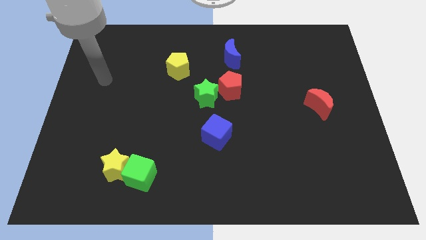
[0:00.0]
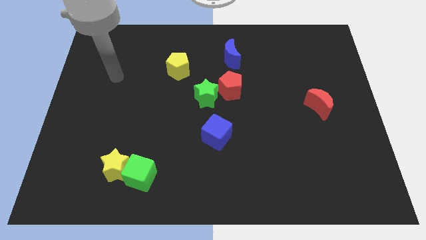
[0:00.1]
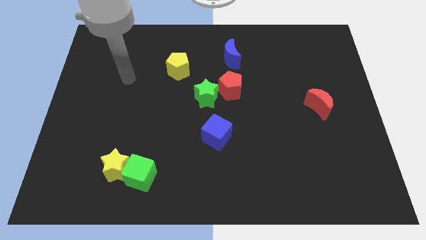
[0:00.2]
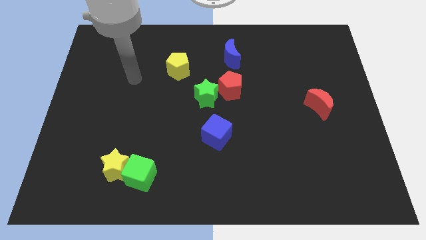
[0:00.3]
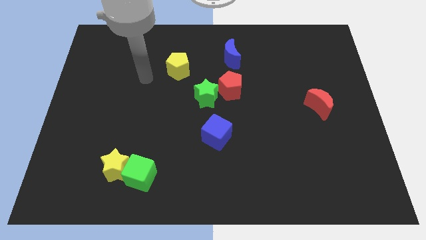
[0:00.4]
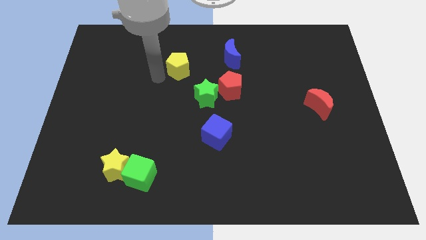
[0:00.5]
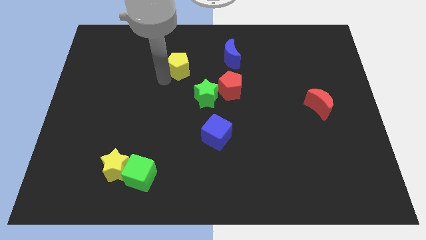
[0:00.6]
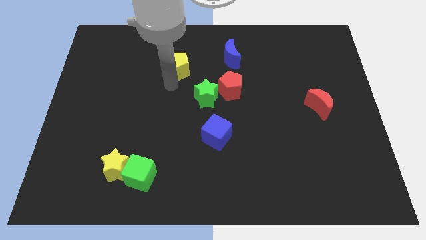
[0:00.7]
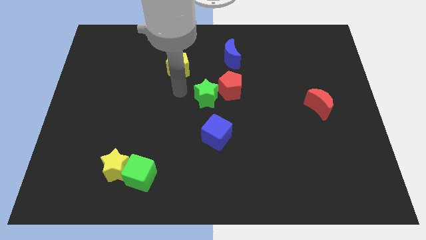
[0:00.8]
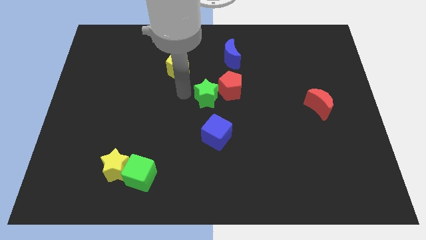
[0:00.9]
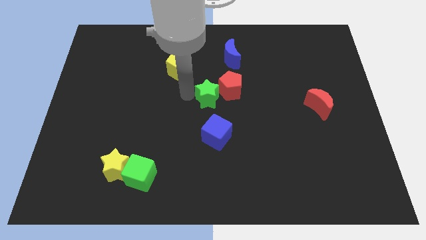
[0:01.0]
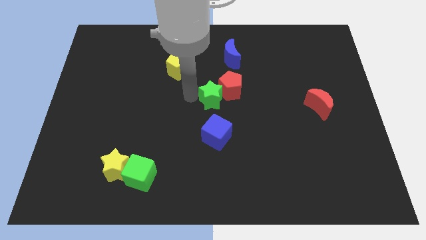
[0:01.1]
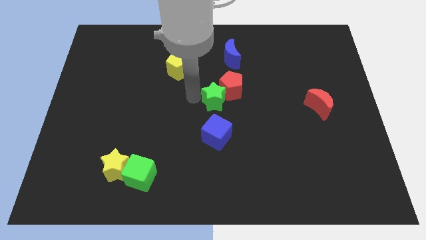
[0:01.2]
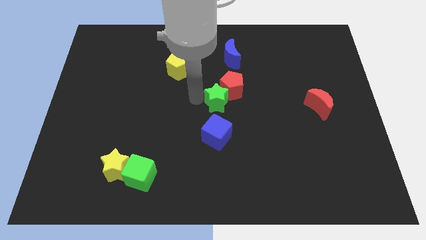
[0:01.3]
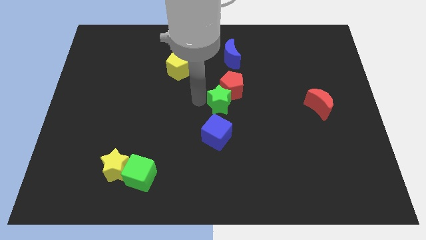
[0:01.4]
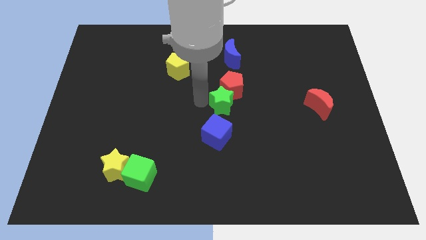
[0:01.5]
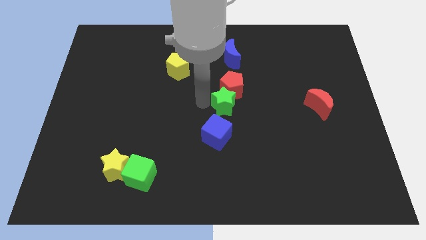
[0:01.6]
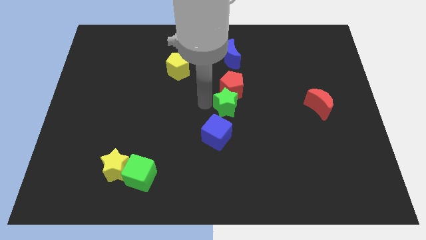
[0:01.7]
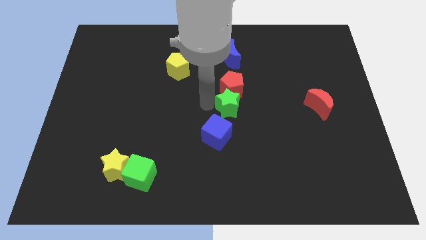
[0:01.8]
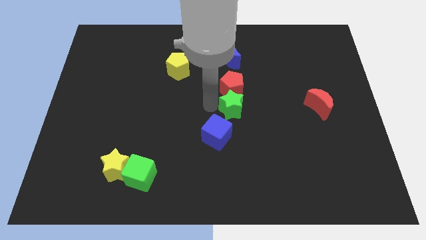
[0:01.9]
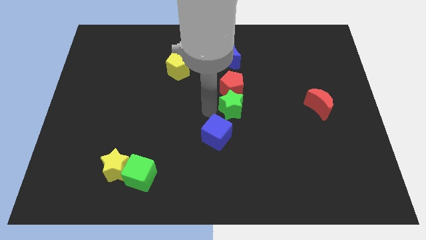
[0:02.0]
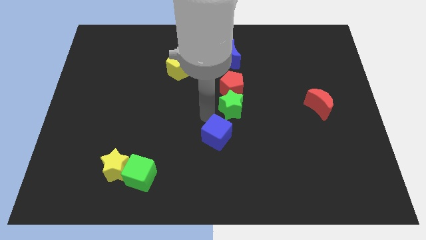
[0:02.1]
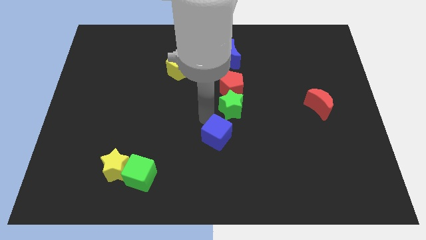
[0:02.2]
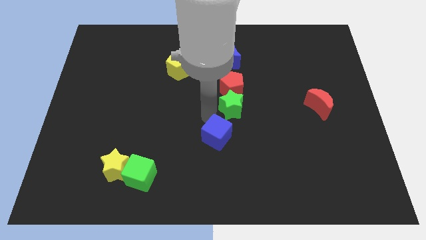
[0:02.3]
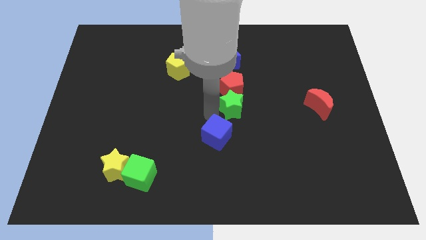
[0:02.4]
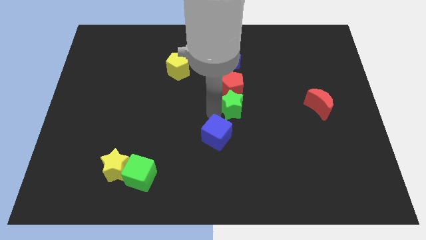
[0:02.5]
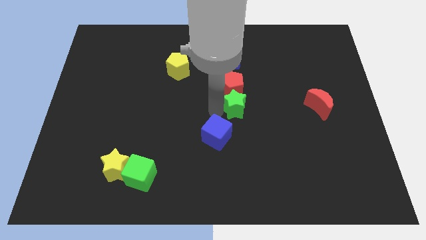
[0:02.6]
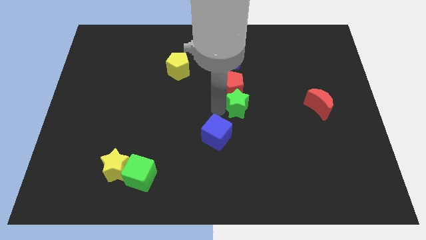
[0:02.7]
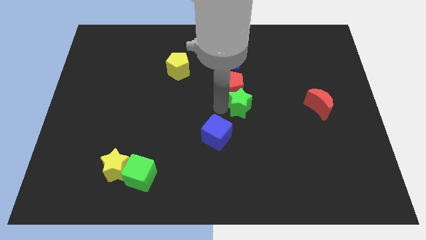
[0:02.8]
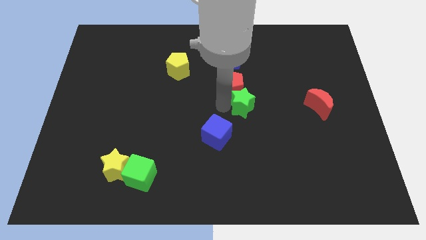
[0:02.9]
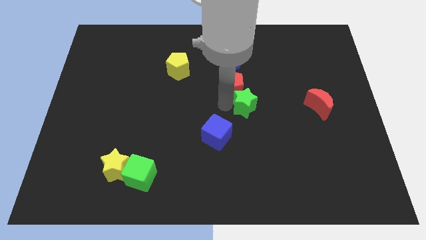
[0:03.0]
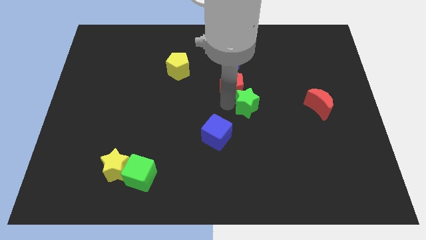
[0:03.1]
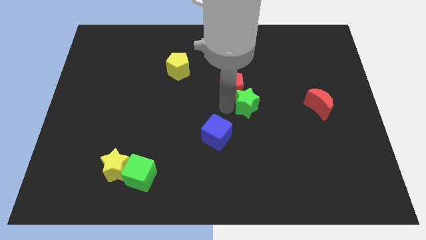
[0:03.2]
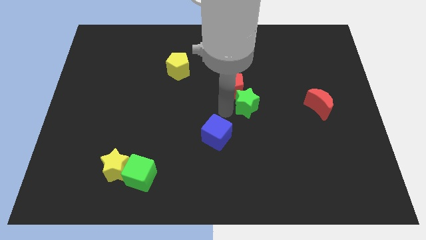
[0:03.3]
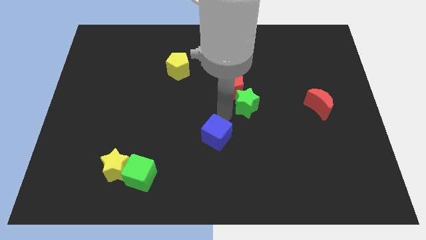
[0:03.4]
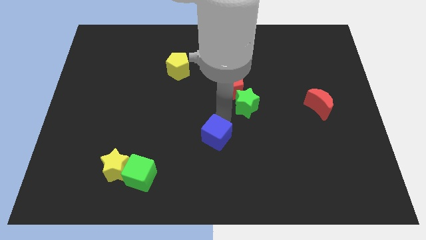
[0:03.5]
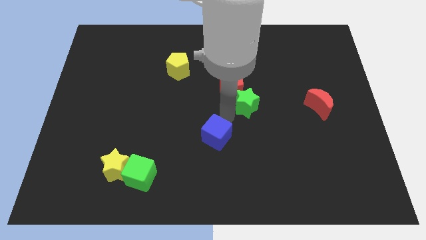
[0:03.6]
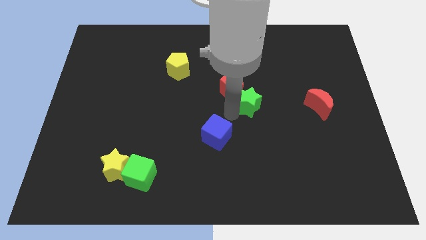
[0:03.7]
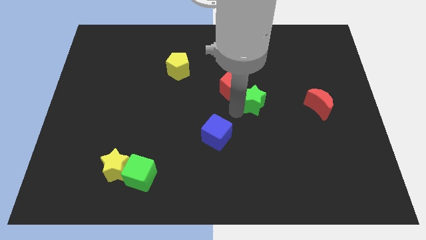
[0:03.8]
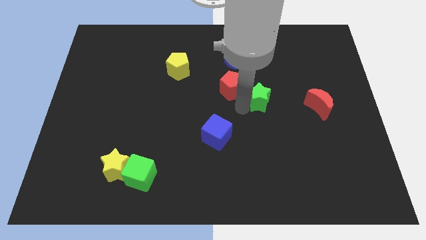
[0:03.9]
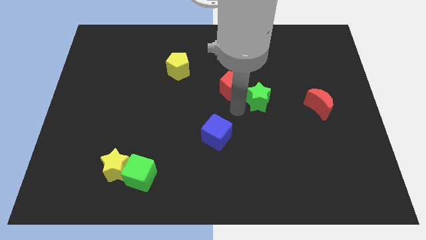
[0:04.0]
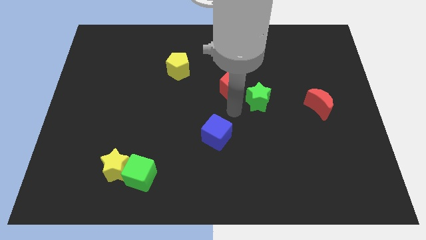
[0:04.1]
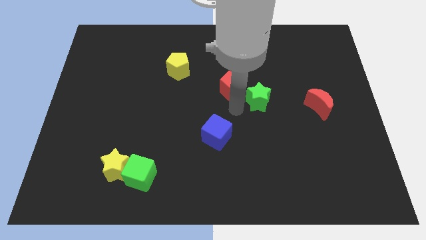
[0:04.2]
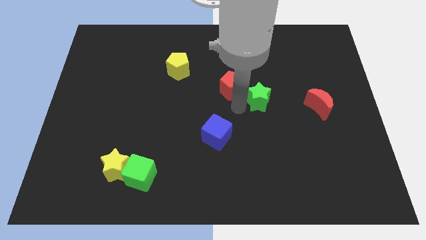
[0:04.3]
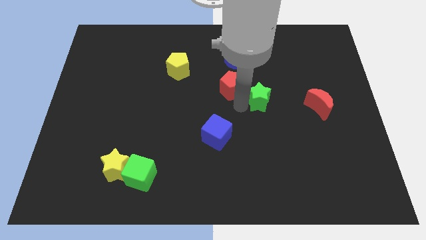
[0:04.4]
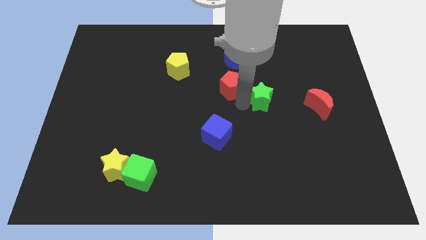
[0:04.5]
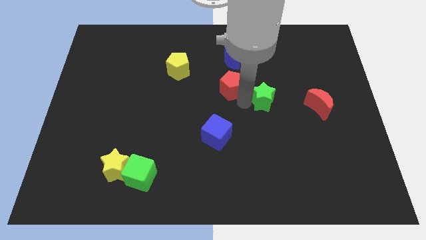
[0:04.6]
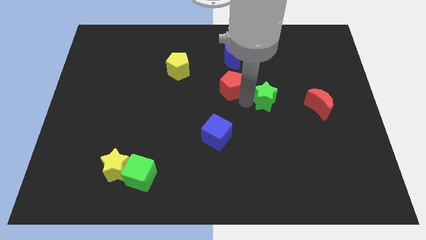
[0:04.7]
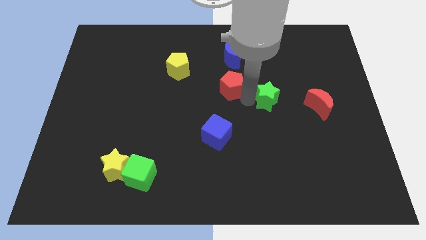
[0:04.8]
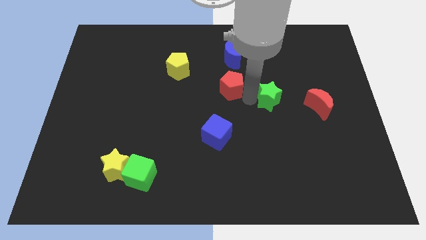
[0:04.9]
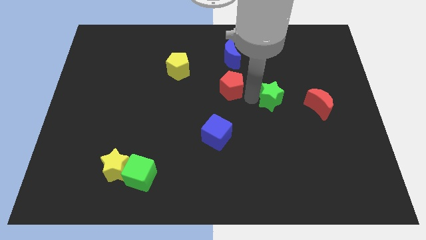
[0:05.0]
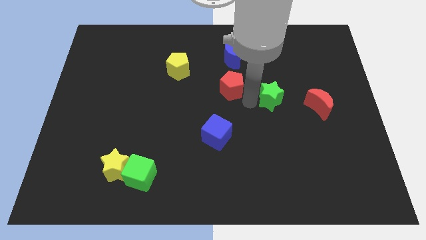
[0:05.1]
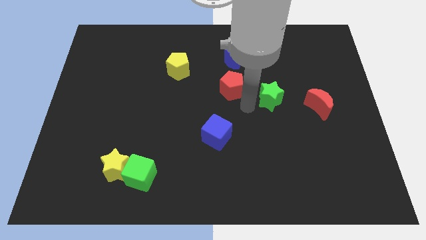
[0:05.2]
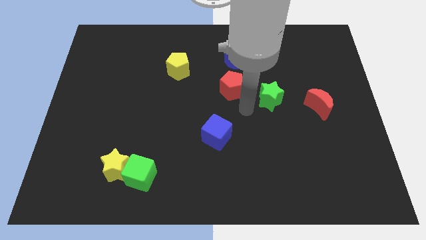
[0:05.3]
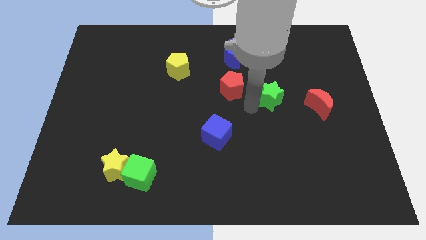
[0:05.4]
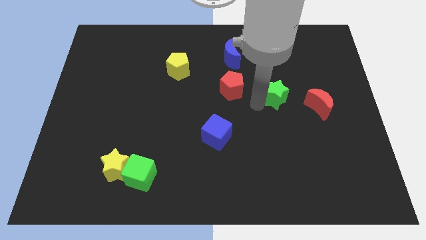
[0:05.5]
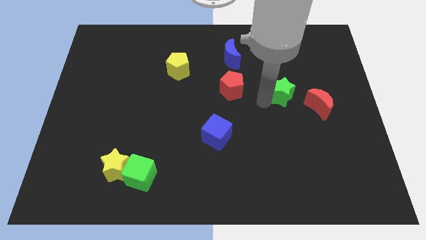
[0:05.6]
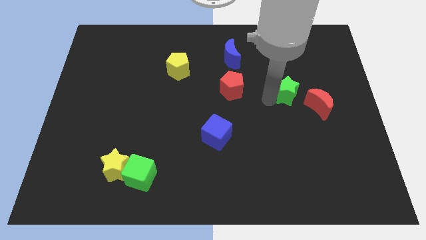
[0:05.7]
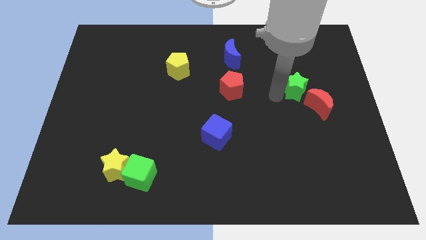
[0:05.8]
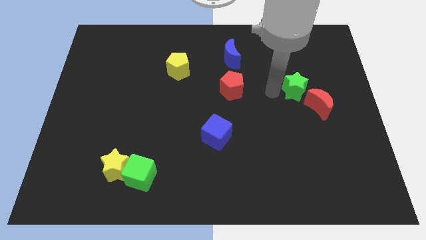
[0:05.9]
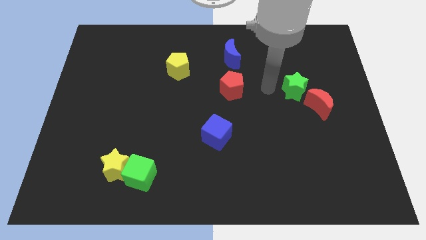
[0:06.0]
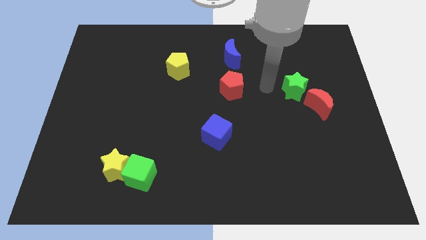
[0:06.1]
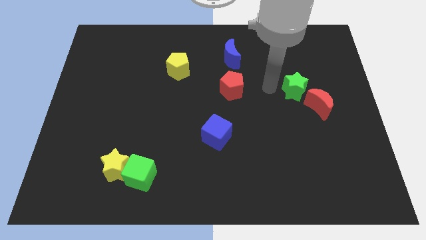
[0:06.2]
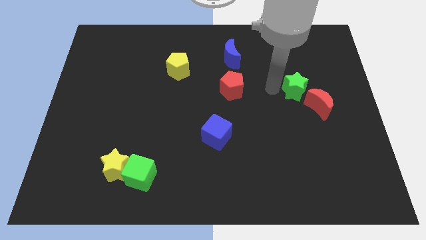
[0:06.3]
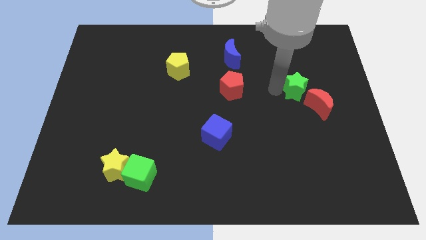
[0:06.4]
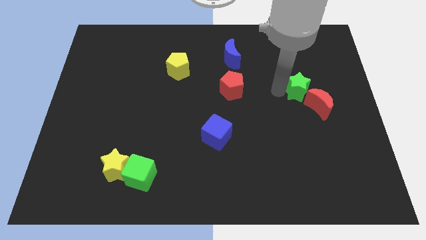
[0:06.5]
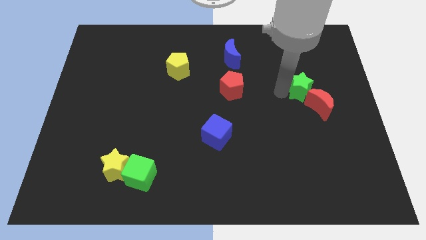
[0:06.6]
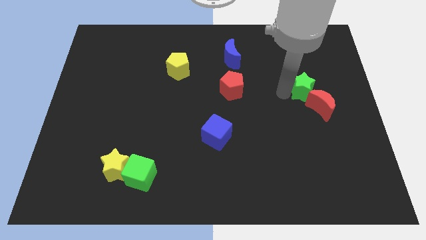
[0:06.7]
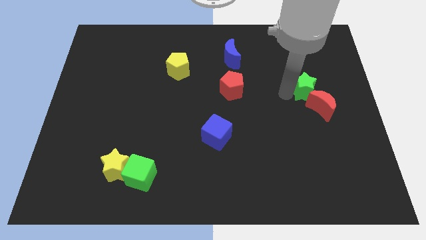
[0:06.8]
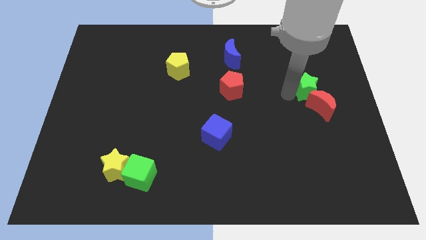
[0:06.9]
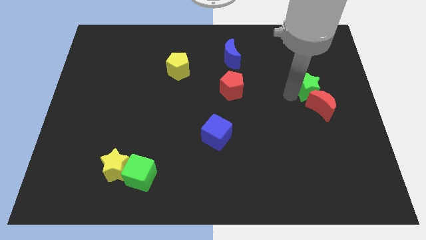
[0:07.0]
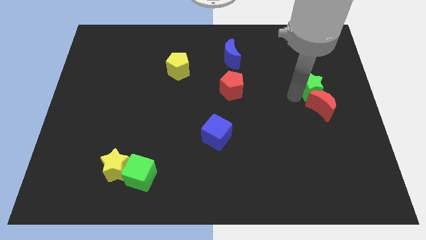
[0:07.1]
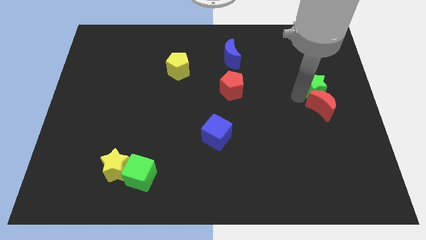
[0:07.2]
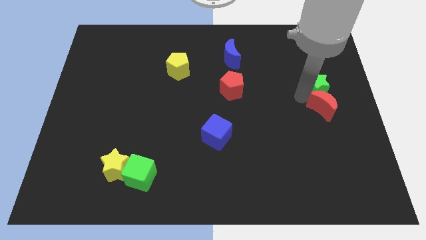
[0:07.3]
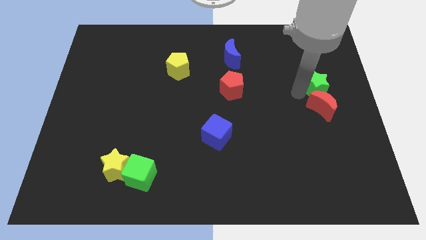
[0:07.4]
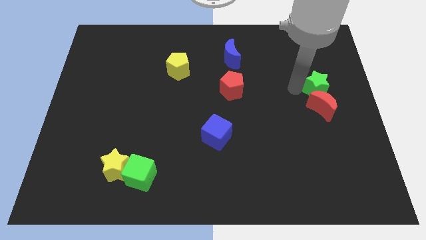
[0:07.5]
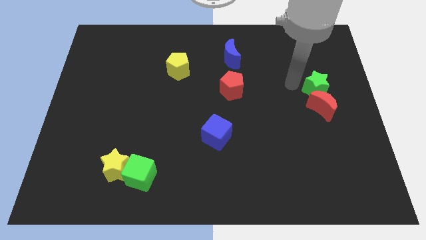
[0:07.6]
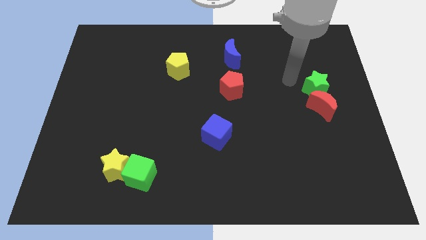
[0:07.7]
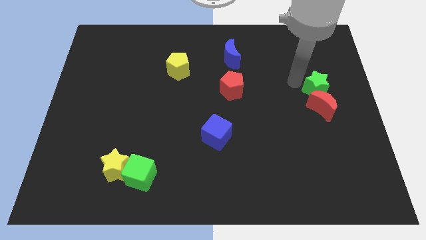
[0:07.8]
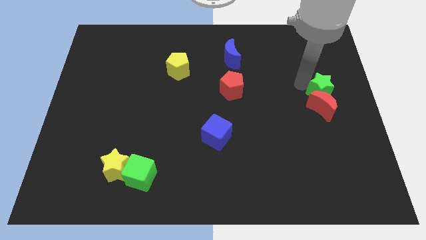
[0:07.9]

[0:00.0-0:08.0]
push the green star to the center right
